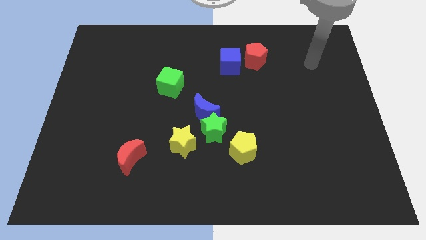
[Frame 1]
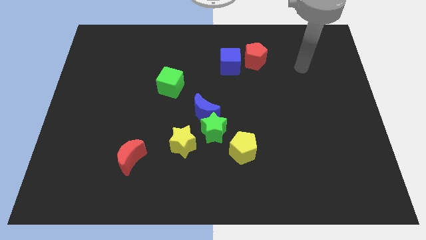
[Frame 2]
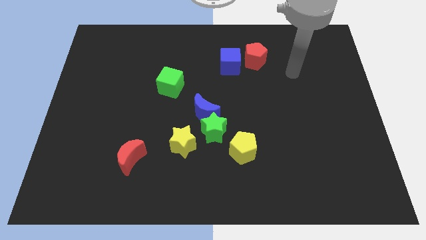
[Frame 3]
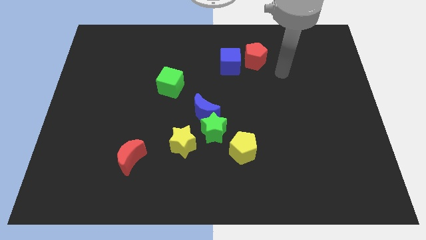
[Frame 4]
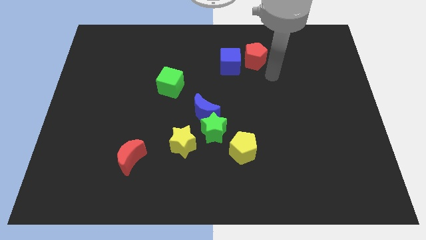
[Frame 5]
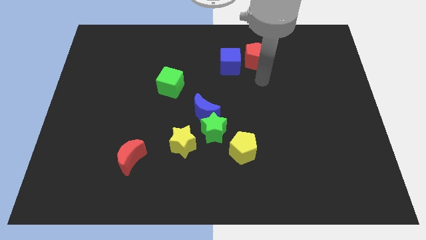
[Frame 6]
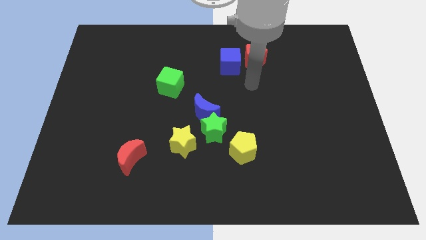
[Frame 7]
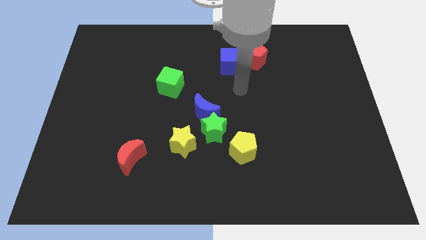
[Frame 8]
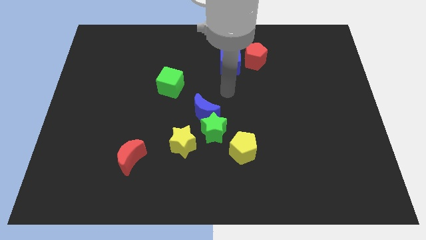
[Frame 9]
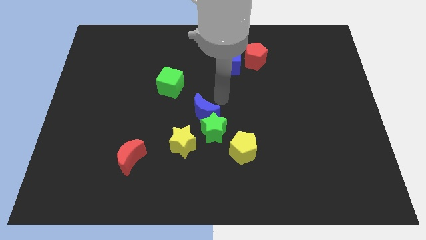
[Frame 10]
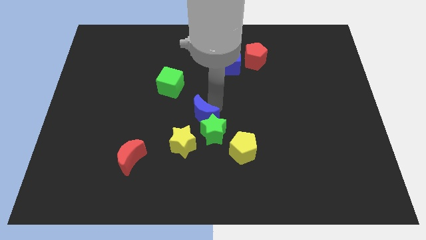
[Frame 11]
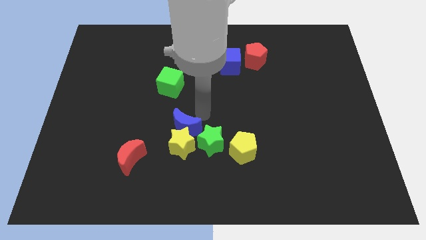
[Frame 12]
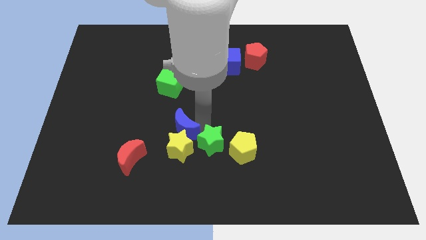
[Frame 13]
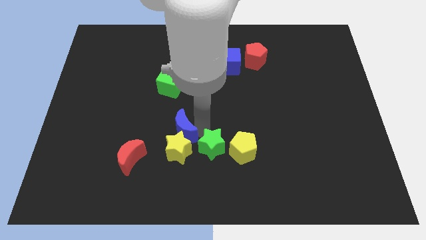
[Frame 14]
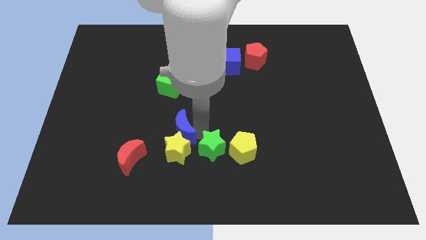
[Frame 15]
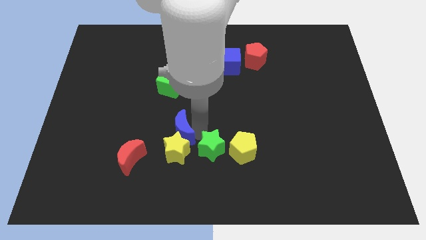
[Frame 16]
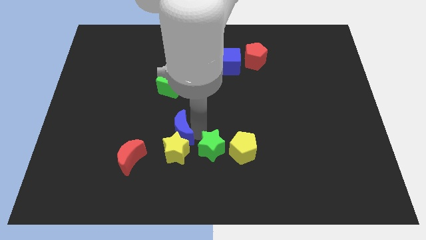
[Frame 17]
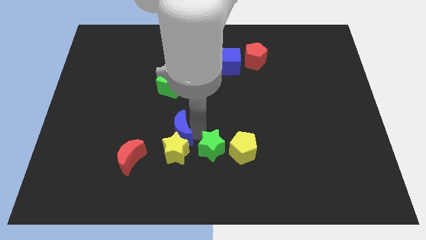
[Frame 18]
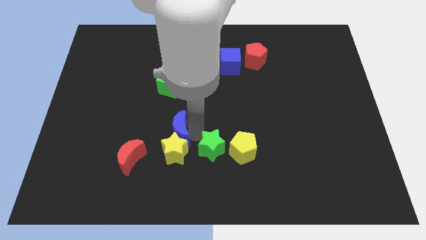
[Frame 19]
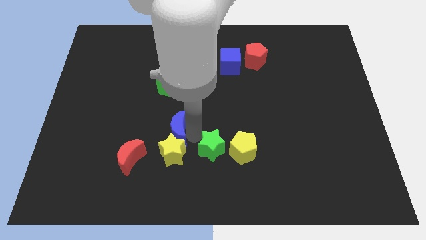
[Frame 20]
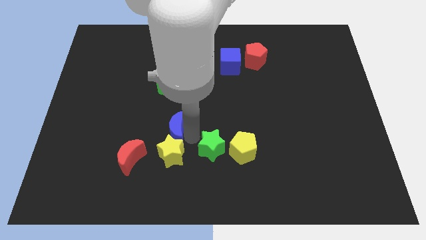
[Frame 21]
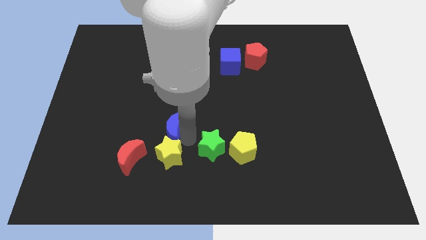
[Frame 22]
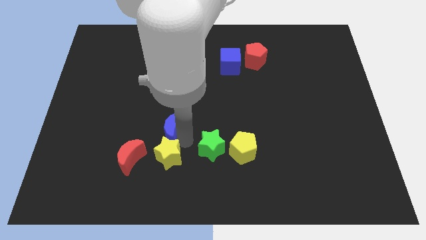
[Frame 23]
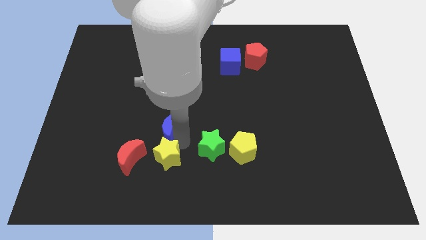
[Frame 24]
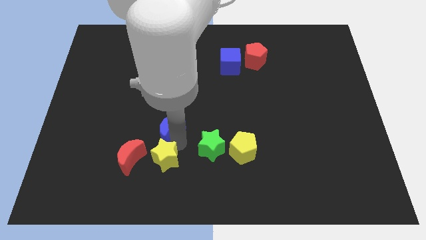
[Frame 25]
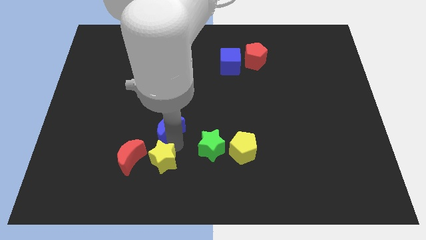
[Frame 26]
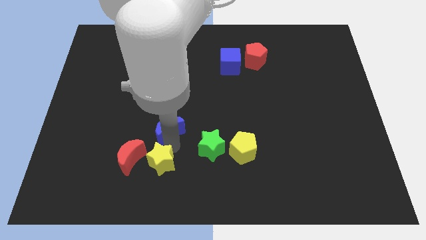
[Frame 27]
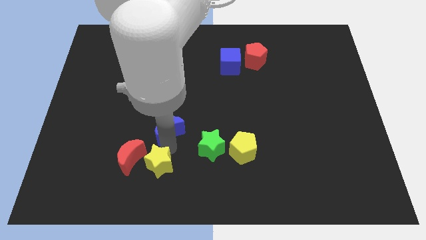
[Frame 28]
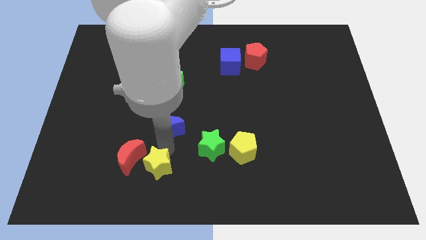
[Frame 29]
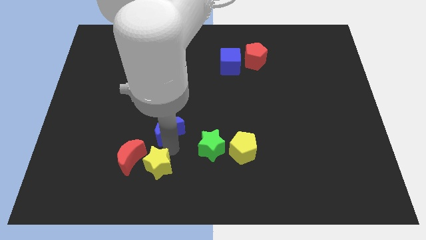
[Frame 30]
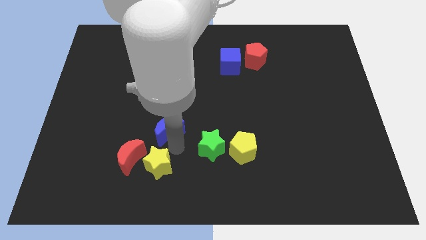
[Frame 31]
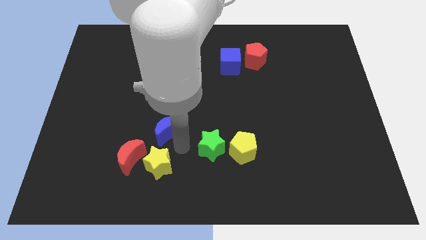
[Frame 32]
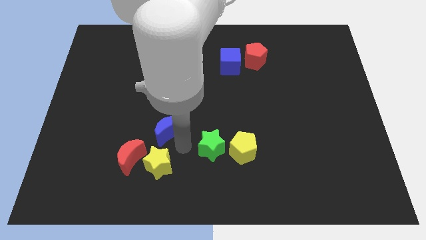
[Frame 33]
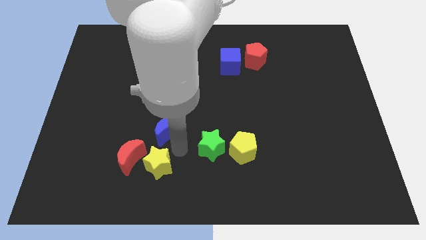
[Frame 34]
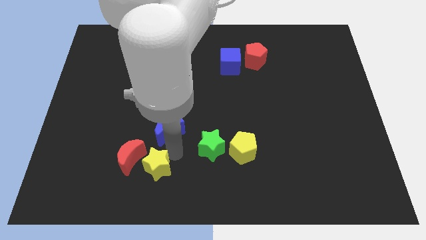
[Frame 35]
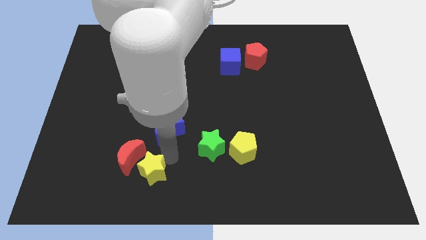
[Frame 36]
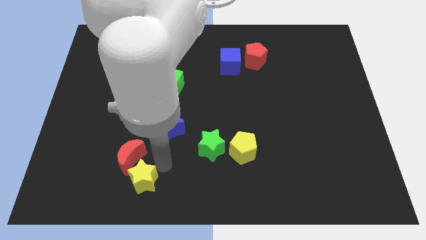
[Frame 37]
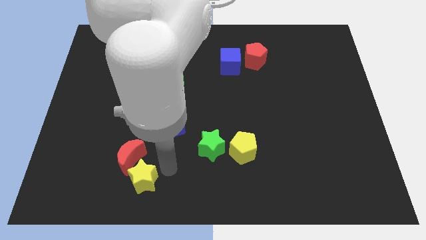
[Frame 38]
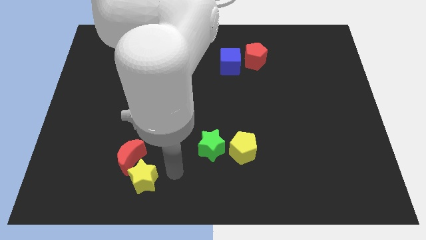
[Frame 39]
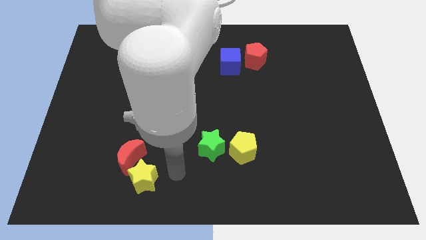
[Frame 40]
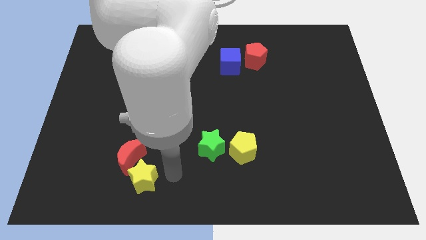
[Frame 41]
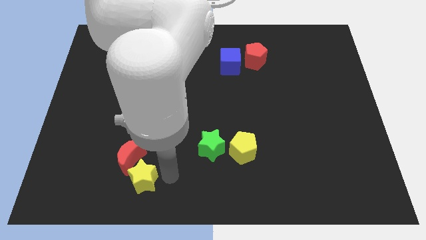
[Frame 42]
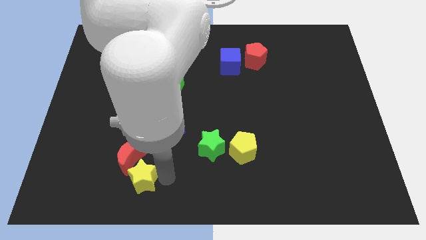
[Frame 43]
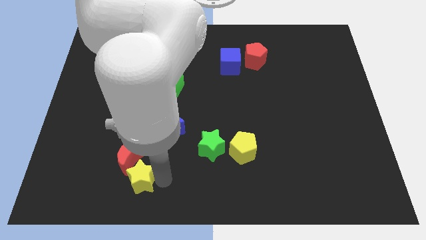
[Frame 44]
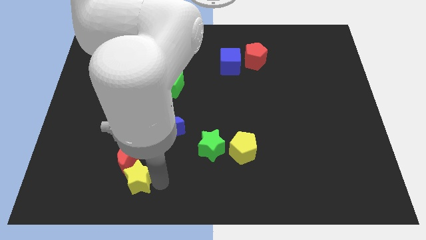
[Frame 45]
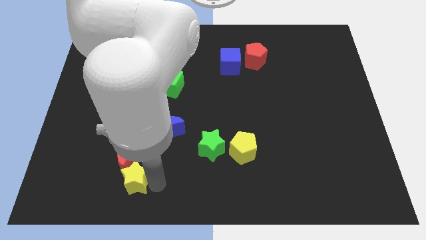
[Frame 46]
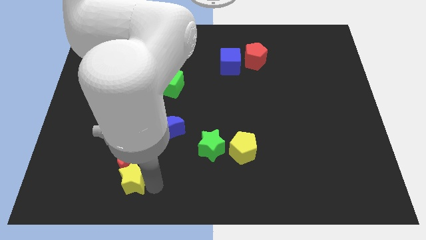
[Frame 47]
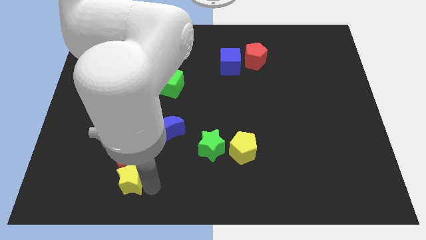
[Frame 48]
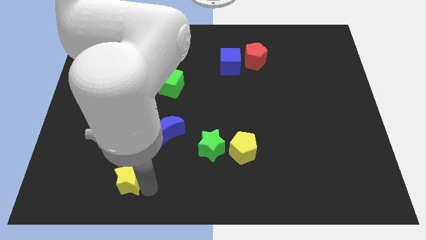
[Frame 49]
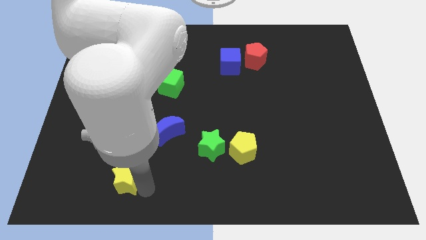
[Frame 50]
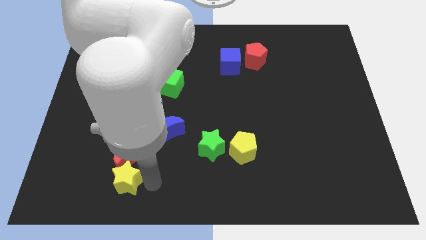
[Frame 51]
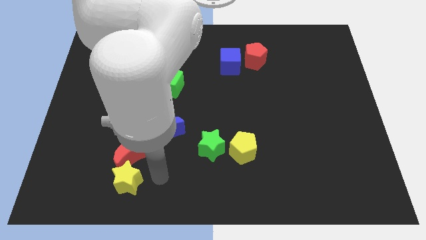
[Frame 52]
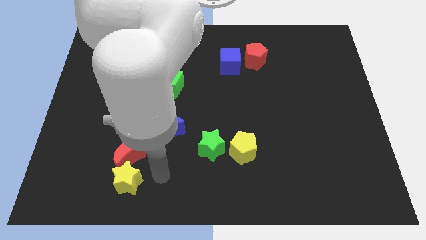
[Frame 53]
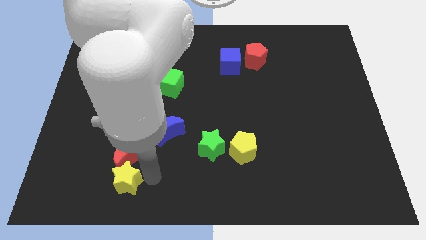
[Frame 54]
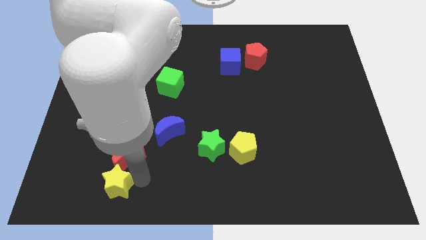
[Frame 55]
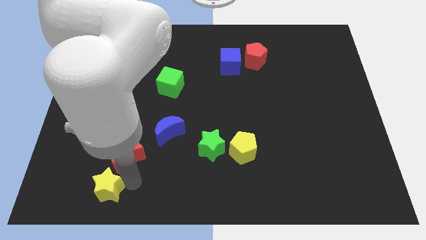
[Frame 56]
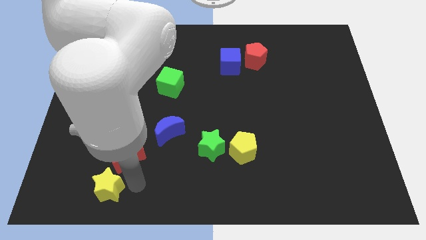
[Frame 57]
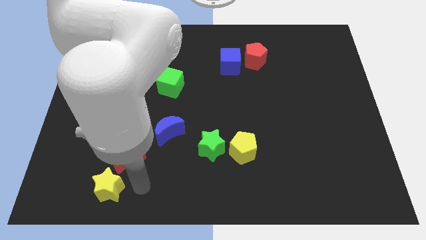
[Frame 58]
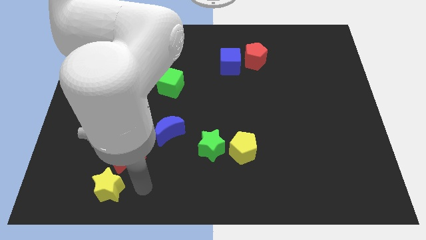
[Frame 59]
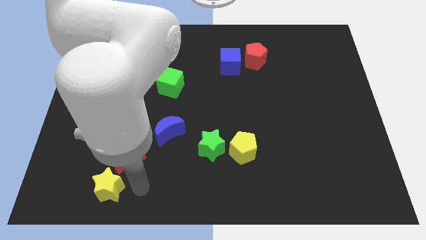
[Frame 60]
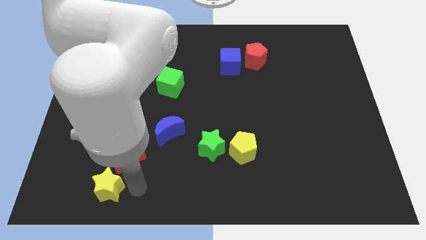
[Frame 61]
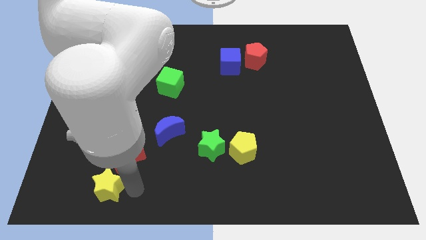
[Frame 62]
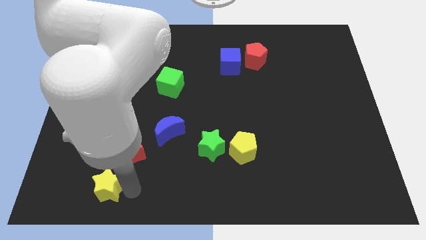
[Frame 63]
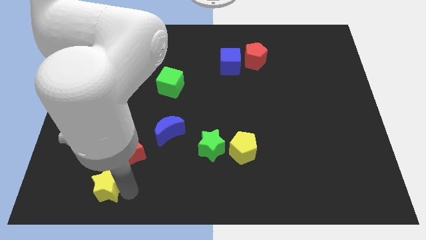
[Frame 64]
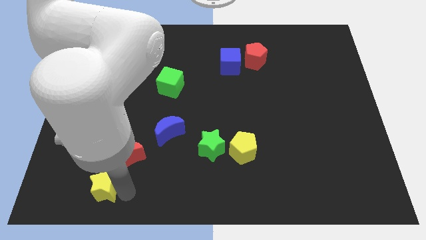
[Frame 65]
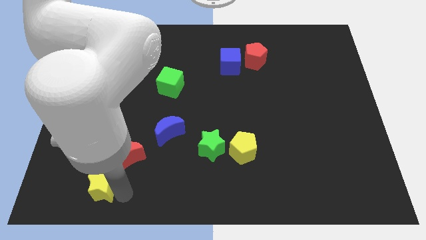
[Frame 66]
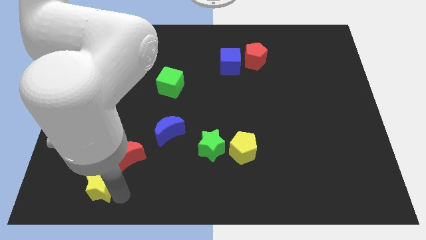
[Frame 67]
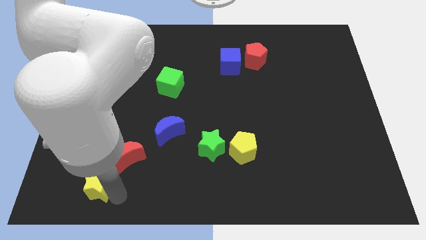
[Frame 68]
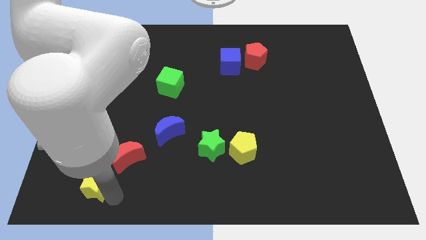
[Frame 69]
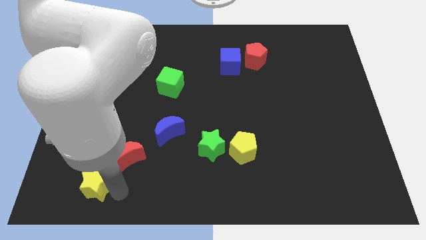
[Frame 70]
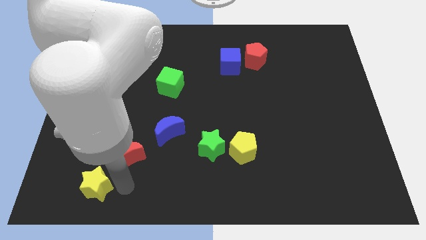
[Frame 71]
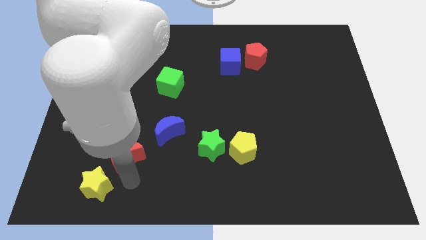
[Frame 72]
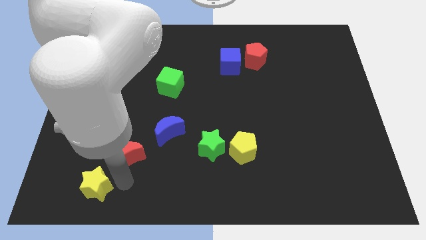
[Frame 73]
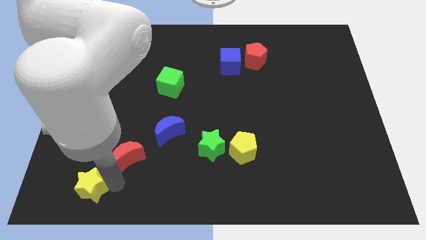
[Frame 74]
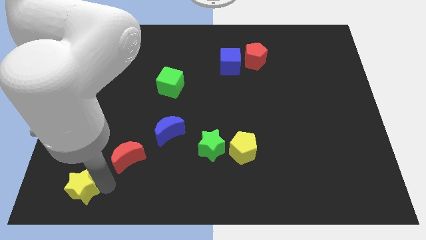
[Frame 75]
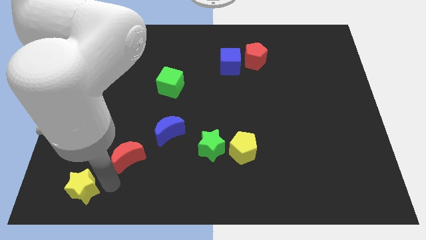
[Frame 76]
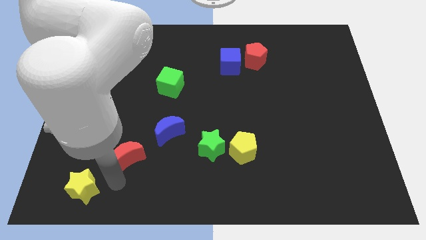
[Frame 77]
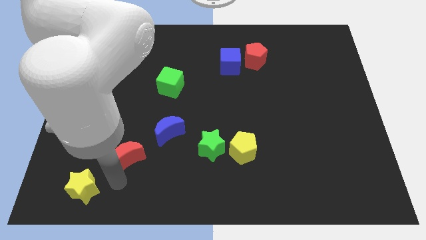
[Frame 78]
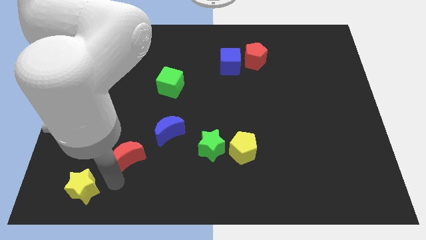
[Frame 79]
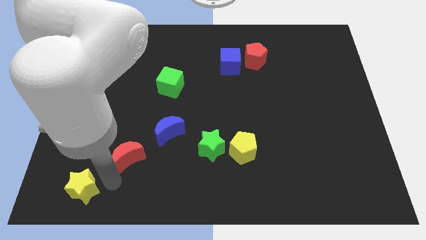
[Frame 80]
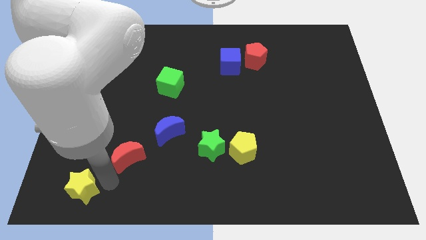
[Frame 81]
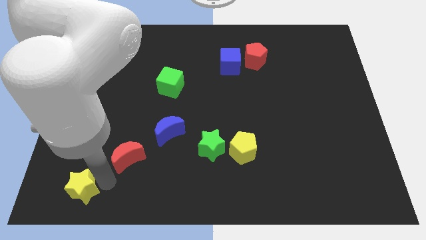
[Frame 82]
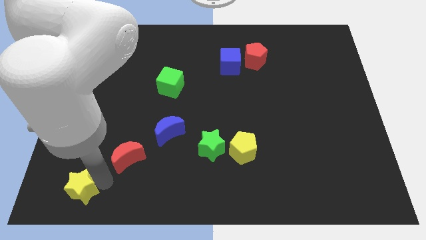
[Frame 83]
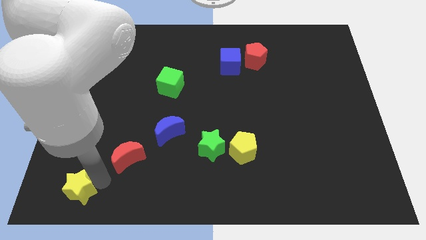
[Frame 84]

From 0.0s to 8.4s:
push the yellow star to the bottom left
